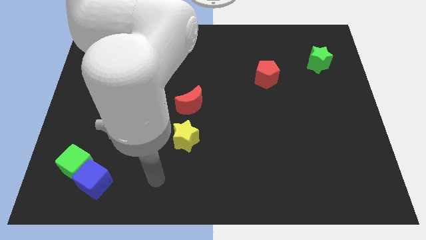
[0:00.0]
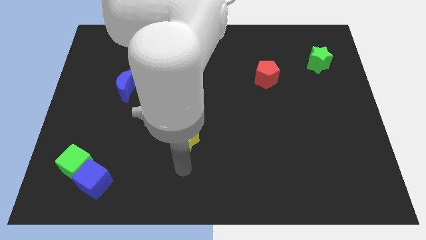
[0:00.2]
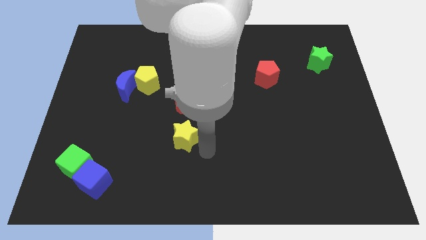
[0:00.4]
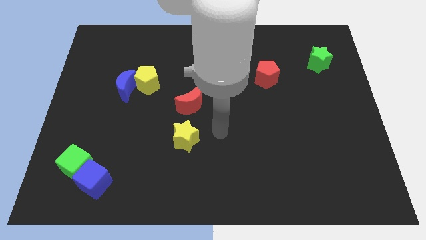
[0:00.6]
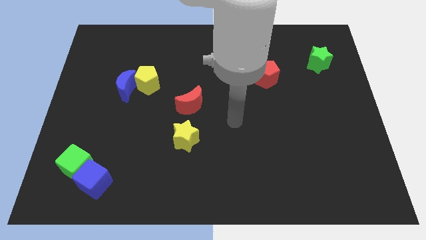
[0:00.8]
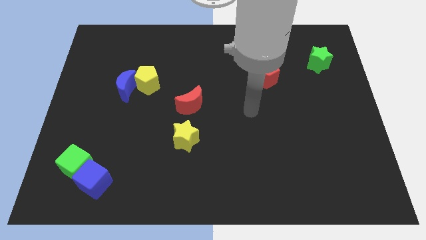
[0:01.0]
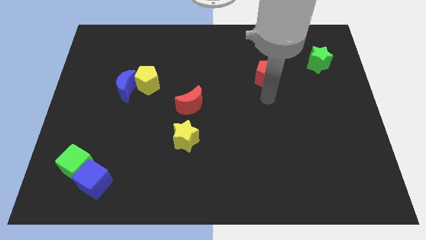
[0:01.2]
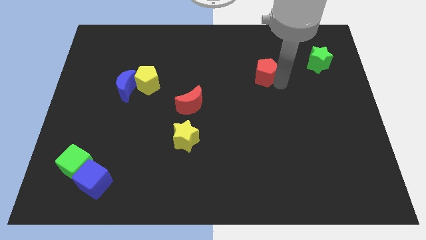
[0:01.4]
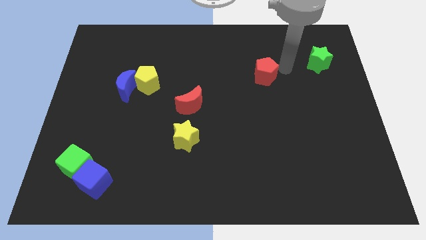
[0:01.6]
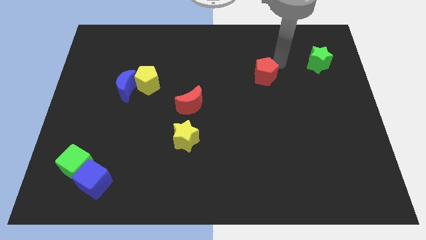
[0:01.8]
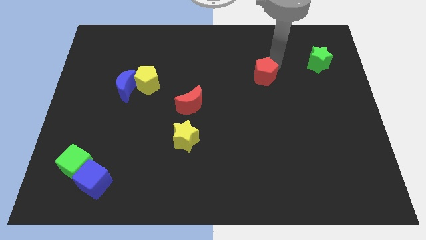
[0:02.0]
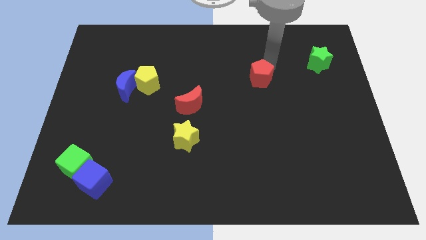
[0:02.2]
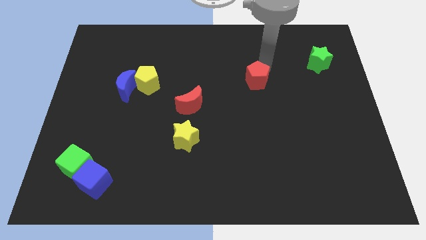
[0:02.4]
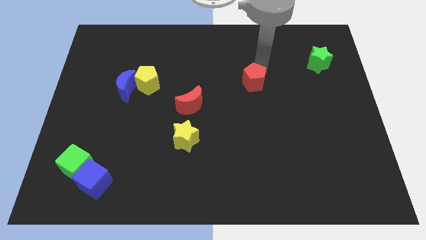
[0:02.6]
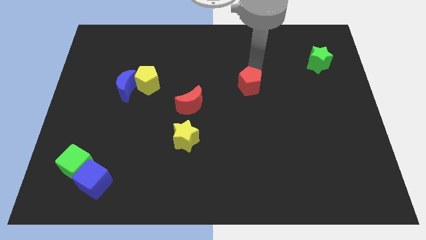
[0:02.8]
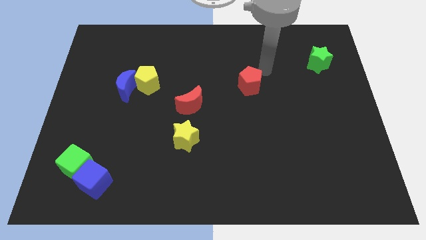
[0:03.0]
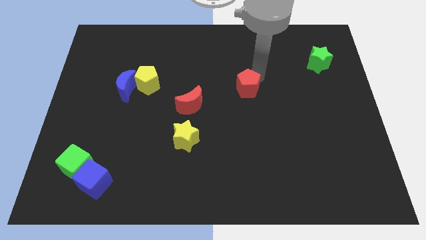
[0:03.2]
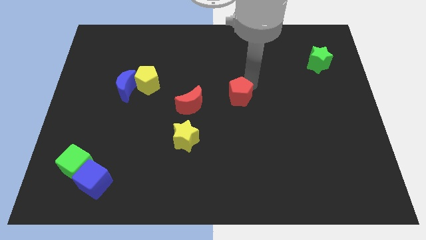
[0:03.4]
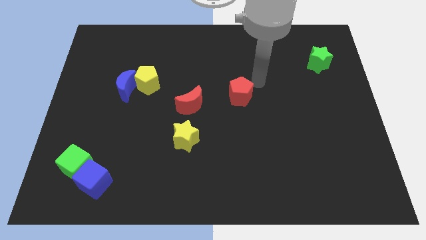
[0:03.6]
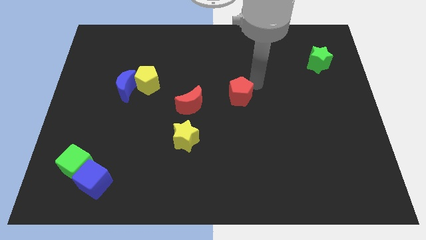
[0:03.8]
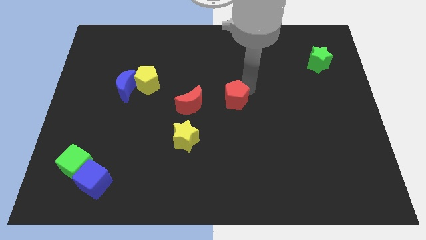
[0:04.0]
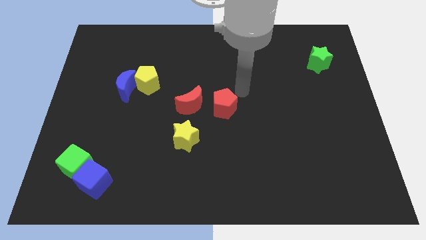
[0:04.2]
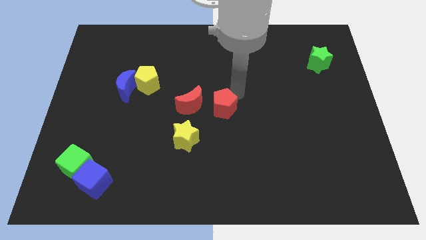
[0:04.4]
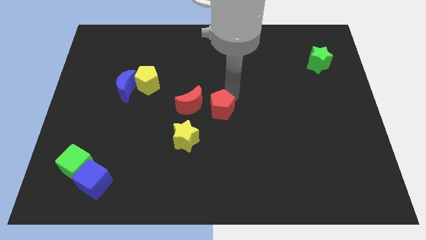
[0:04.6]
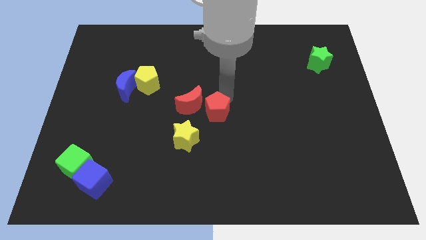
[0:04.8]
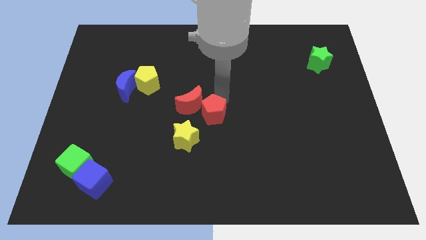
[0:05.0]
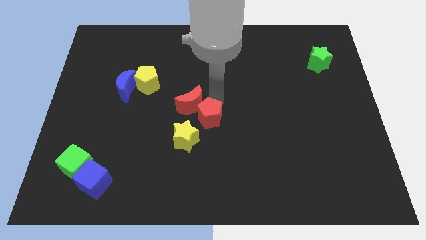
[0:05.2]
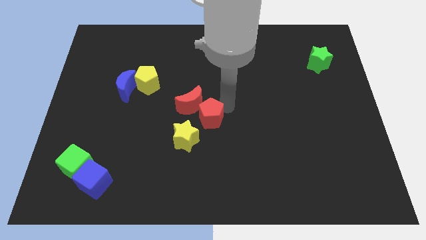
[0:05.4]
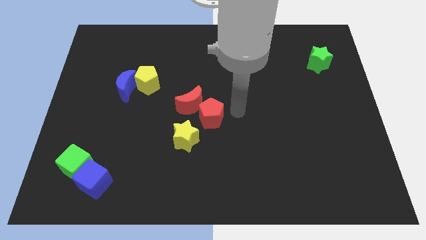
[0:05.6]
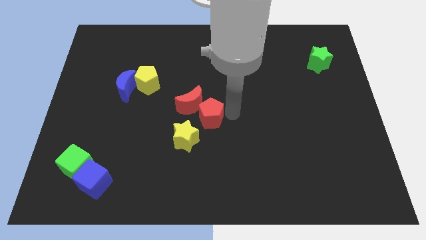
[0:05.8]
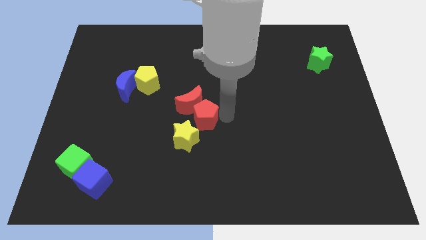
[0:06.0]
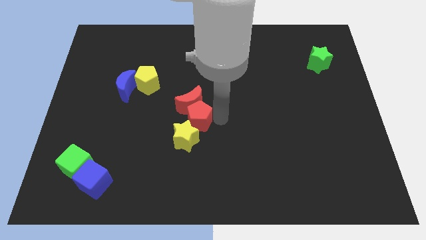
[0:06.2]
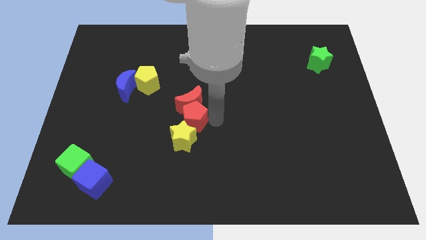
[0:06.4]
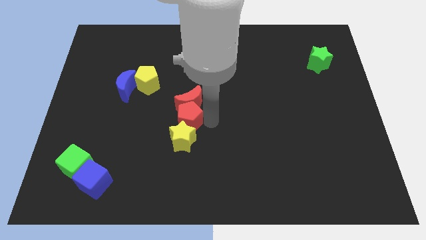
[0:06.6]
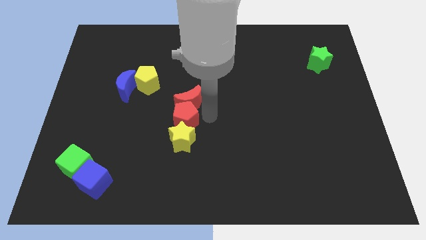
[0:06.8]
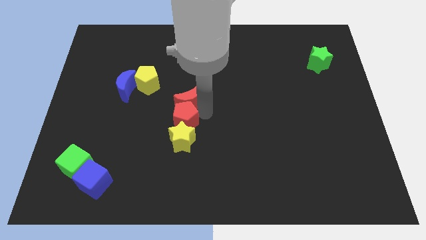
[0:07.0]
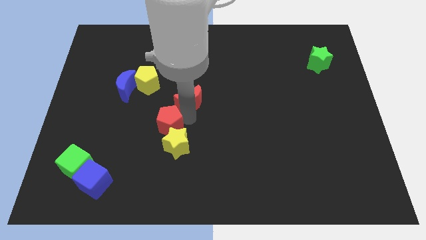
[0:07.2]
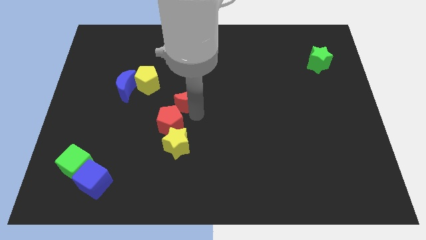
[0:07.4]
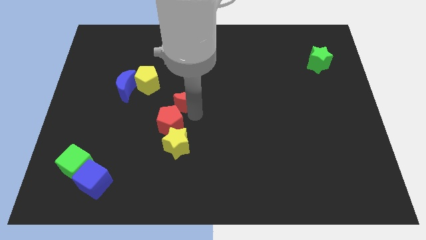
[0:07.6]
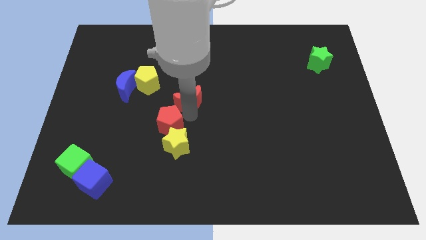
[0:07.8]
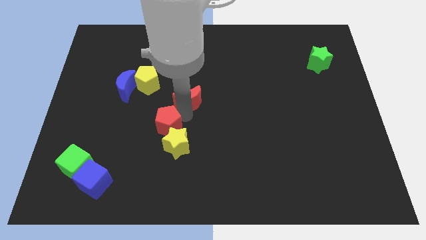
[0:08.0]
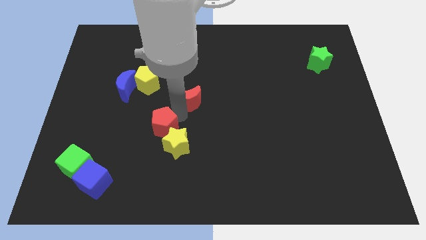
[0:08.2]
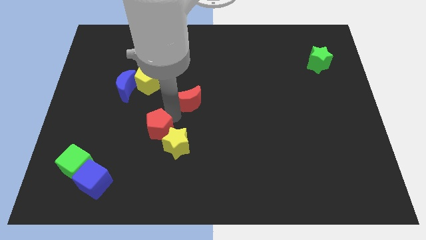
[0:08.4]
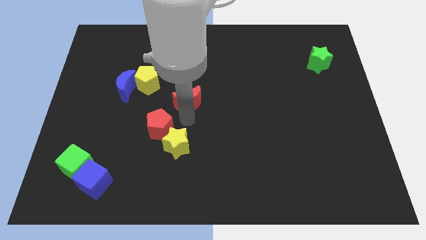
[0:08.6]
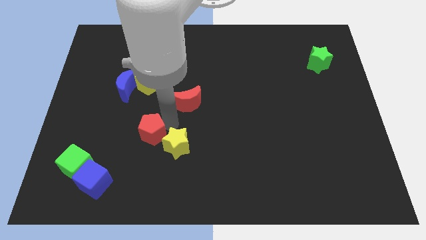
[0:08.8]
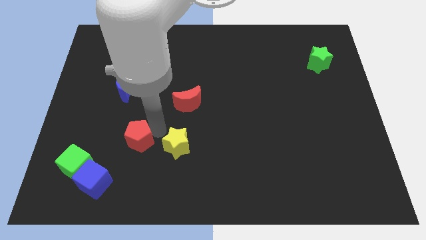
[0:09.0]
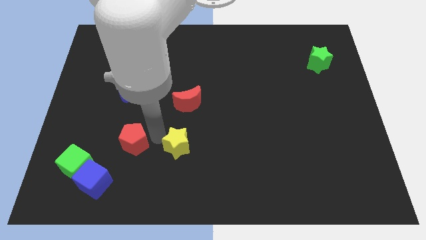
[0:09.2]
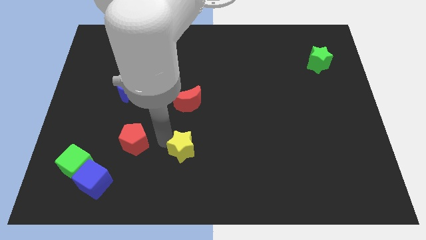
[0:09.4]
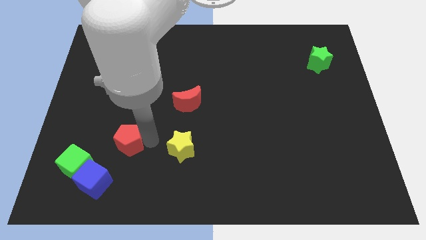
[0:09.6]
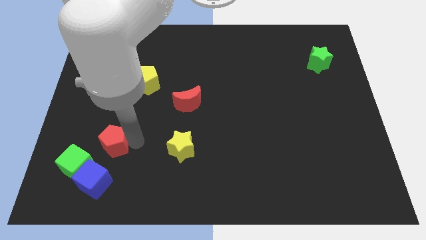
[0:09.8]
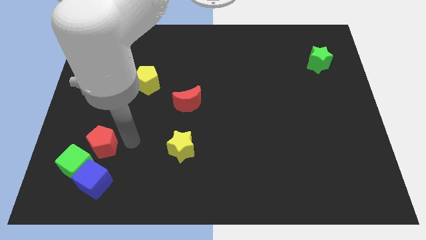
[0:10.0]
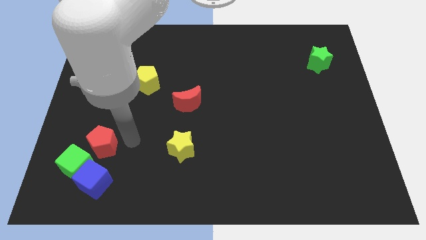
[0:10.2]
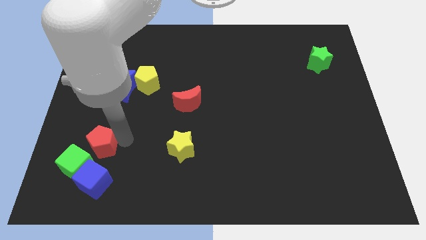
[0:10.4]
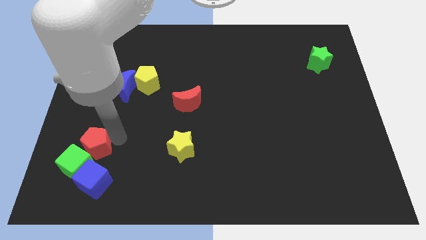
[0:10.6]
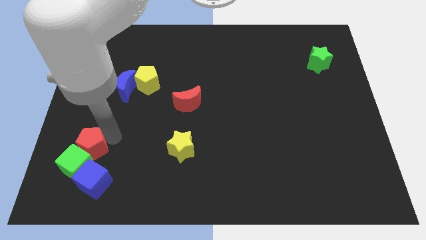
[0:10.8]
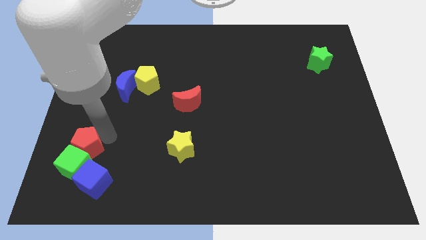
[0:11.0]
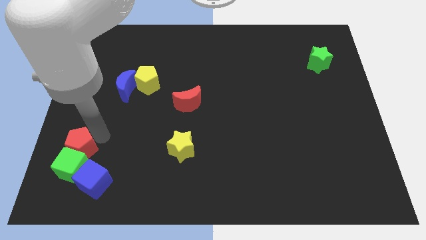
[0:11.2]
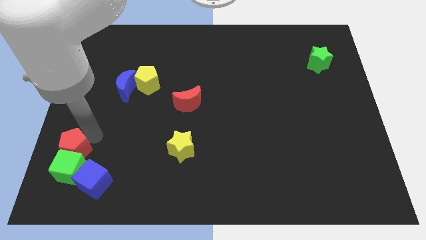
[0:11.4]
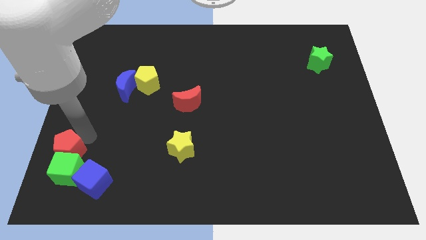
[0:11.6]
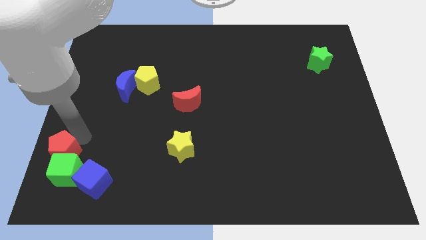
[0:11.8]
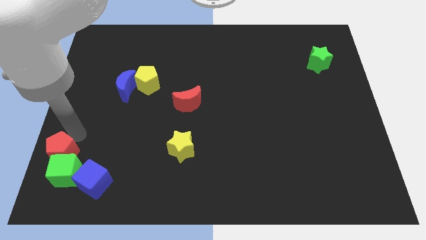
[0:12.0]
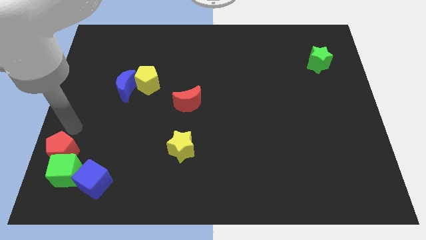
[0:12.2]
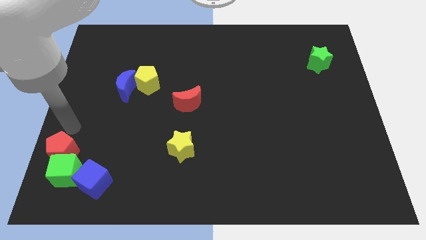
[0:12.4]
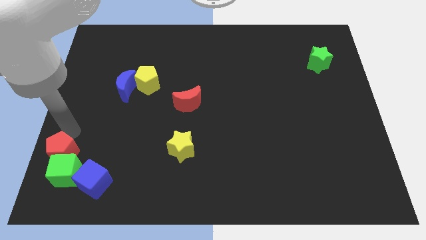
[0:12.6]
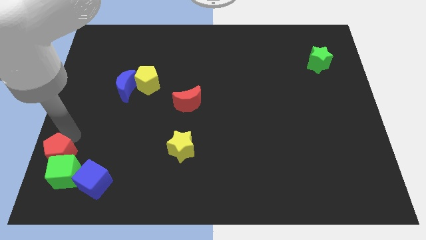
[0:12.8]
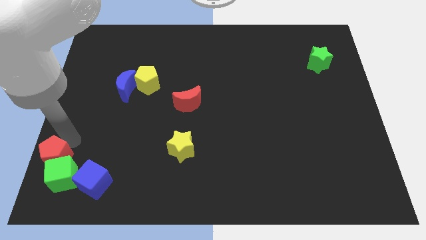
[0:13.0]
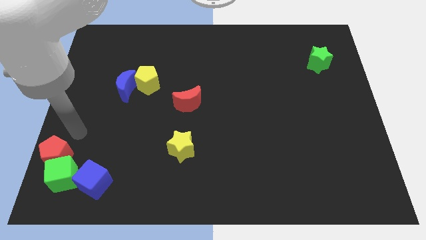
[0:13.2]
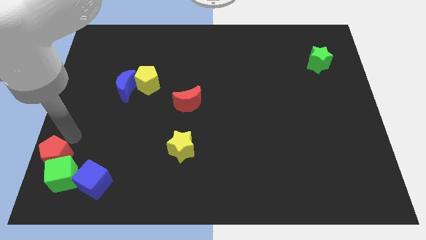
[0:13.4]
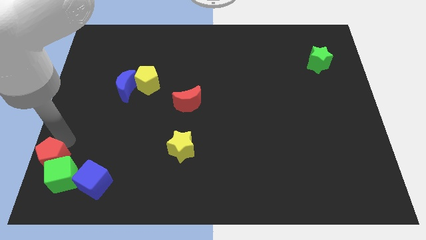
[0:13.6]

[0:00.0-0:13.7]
put the red pentagon to the lower left corner
